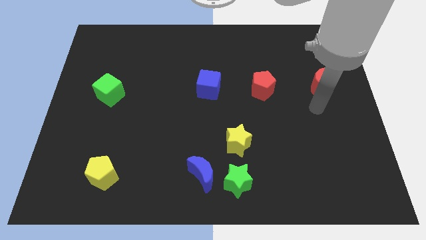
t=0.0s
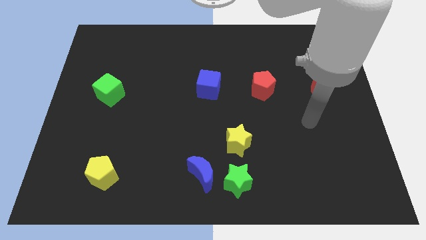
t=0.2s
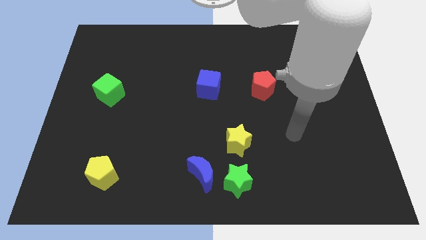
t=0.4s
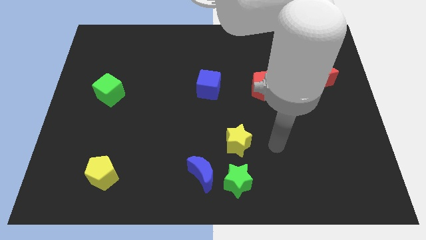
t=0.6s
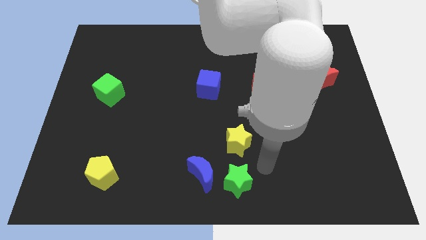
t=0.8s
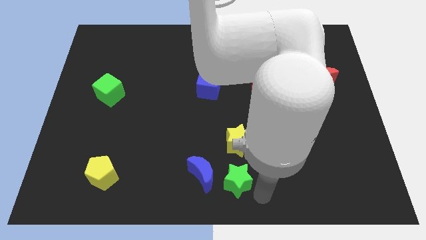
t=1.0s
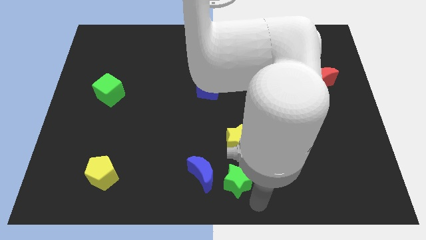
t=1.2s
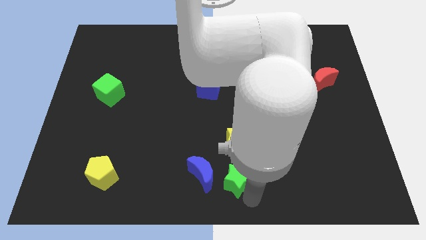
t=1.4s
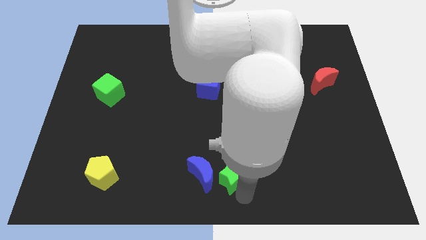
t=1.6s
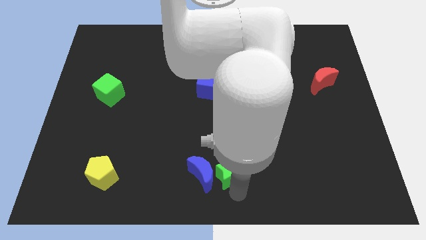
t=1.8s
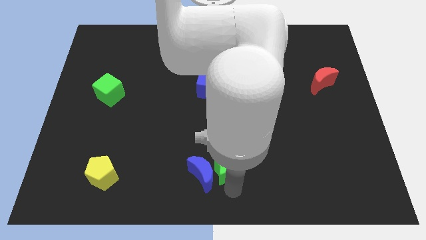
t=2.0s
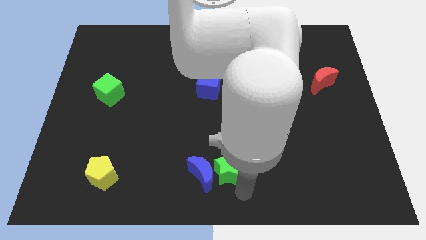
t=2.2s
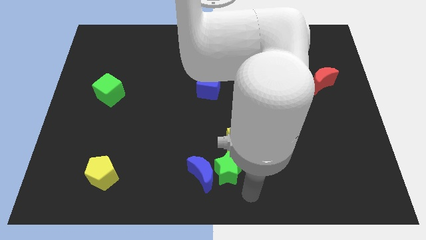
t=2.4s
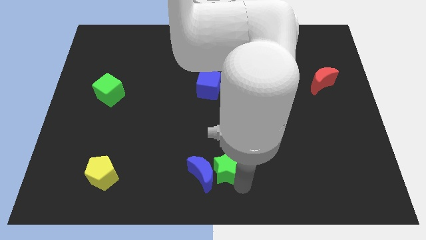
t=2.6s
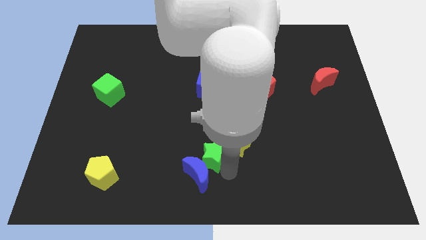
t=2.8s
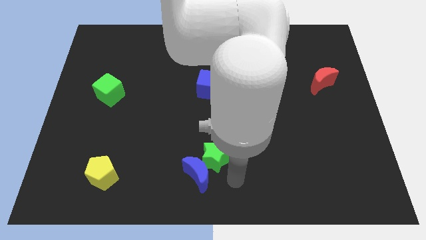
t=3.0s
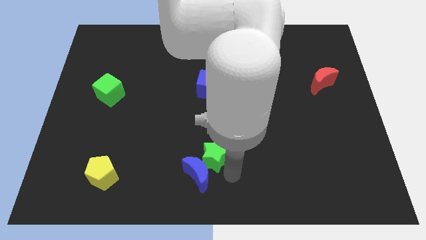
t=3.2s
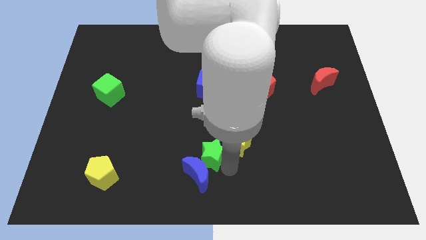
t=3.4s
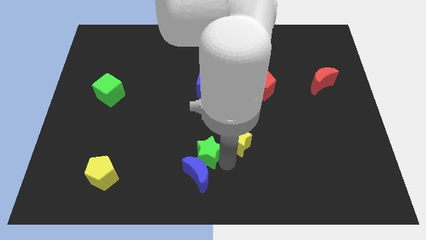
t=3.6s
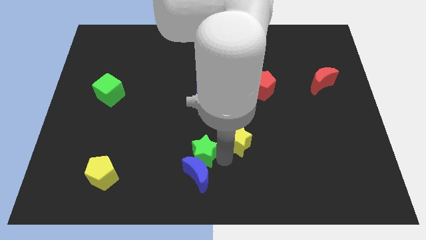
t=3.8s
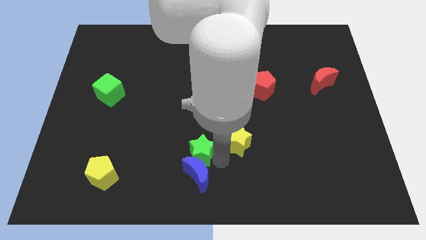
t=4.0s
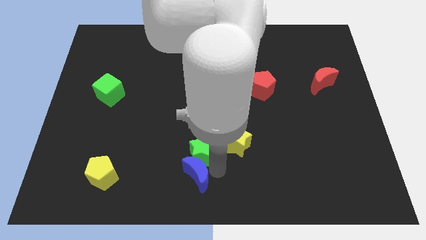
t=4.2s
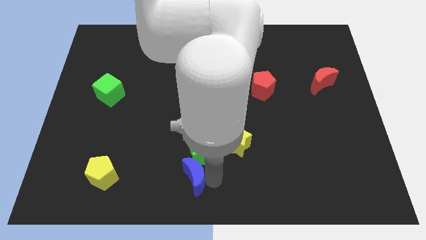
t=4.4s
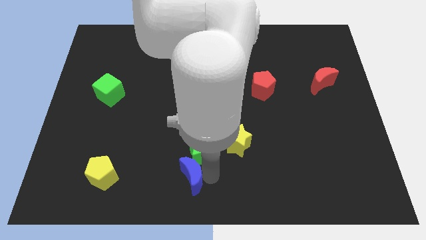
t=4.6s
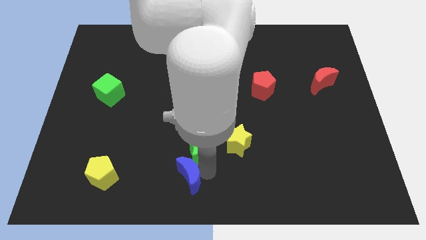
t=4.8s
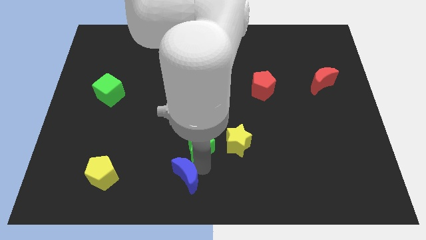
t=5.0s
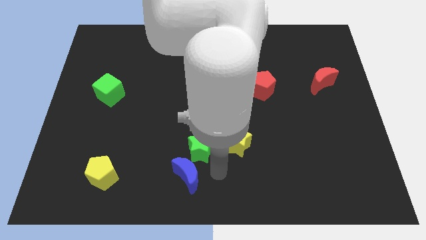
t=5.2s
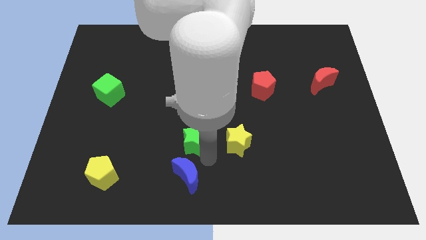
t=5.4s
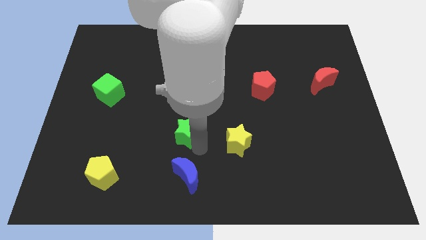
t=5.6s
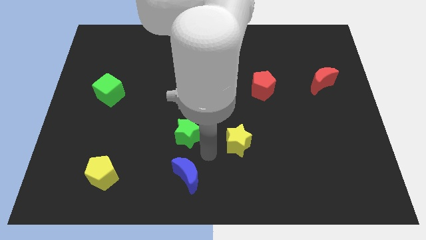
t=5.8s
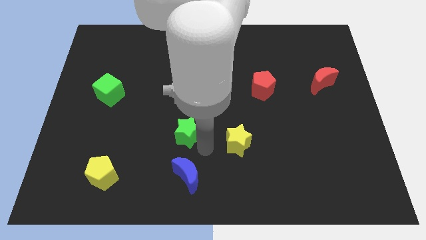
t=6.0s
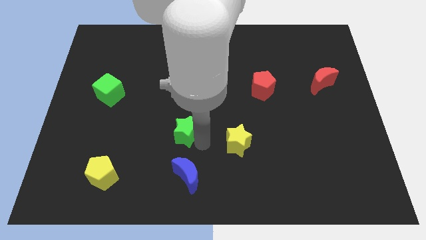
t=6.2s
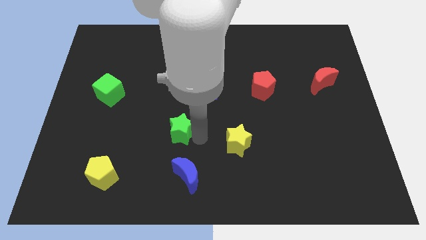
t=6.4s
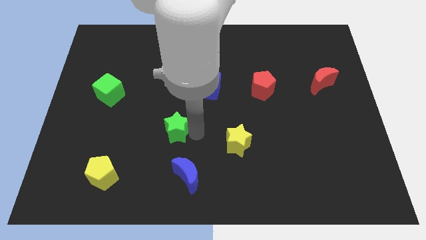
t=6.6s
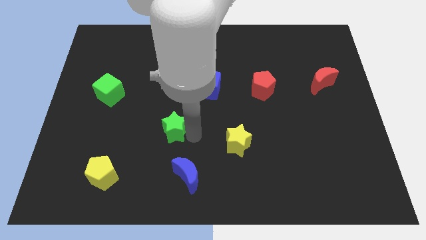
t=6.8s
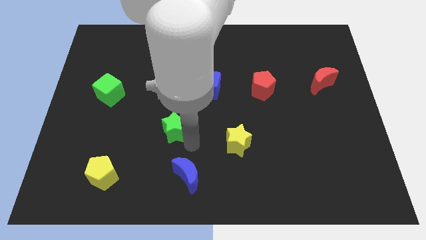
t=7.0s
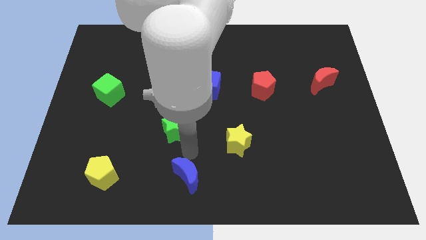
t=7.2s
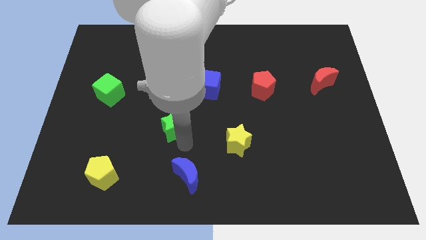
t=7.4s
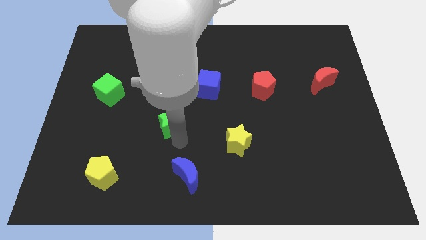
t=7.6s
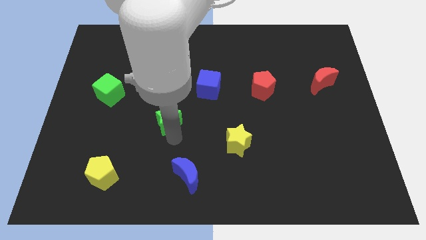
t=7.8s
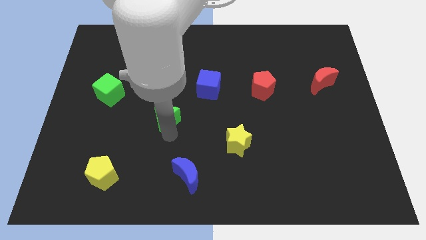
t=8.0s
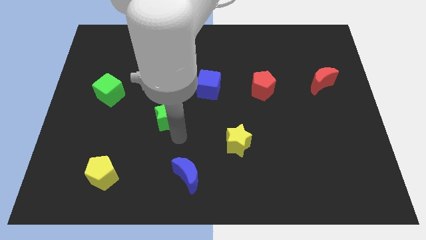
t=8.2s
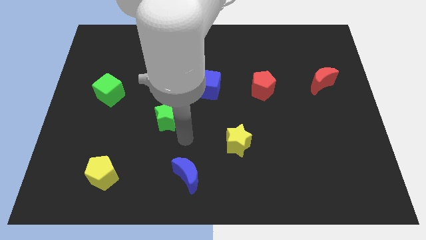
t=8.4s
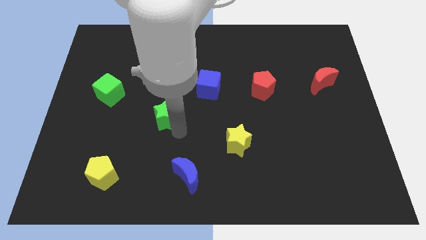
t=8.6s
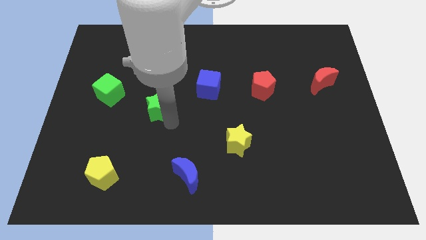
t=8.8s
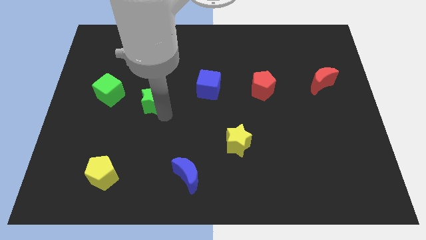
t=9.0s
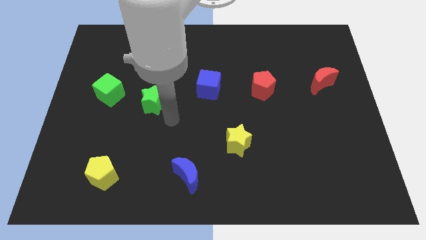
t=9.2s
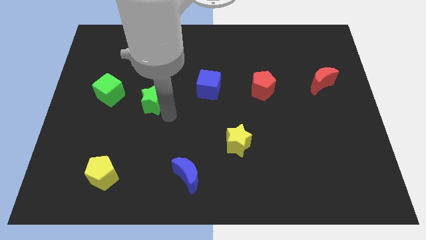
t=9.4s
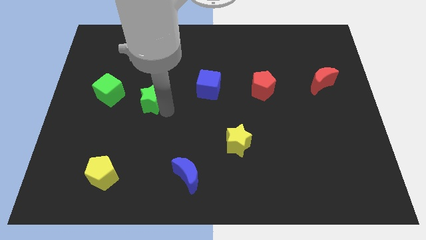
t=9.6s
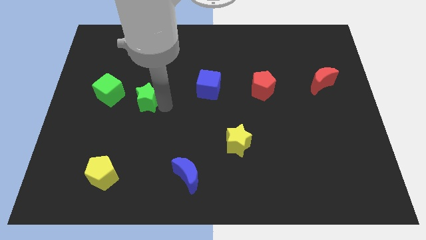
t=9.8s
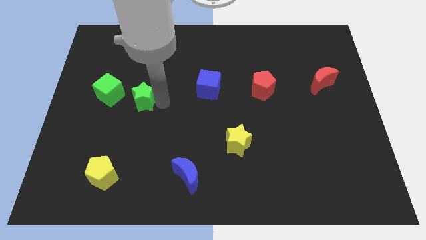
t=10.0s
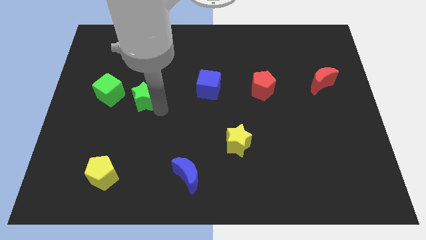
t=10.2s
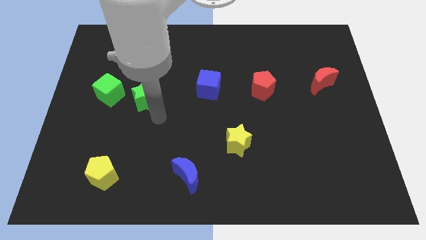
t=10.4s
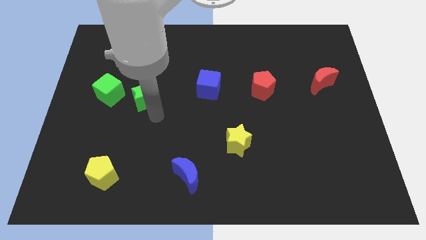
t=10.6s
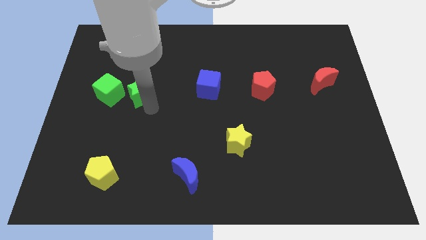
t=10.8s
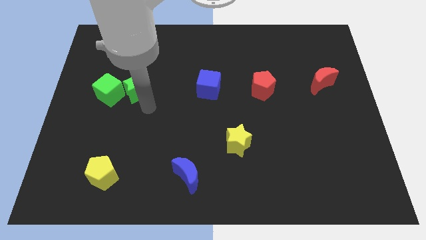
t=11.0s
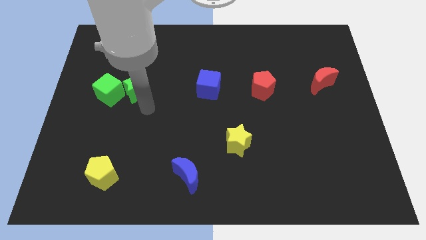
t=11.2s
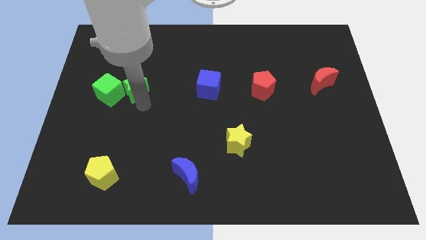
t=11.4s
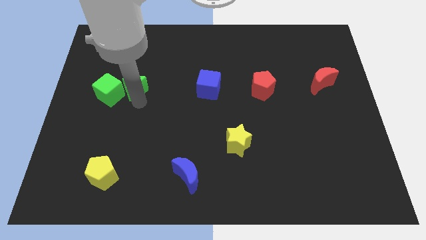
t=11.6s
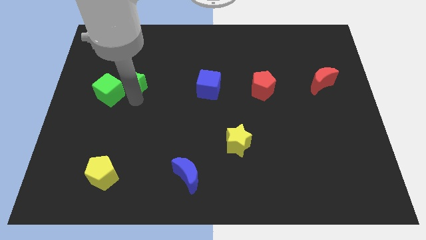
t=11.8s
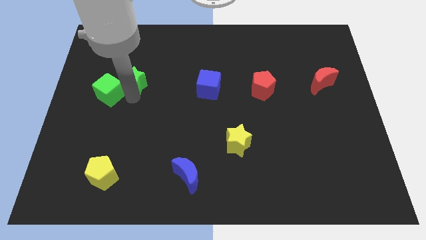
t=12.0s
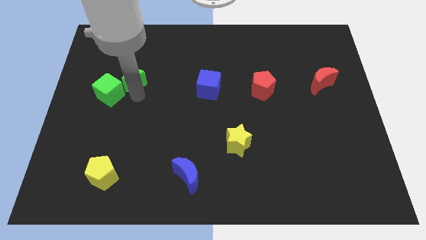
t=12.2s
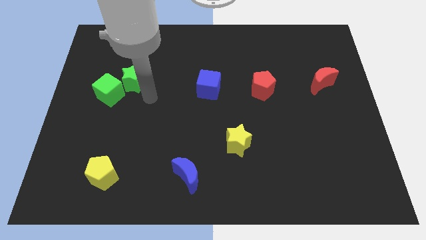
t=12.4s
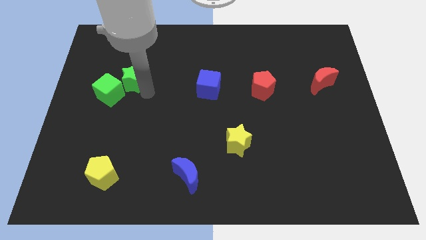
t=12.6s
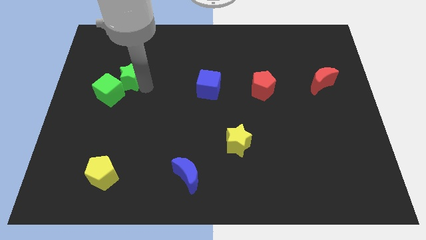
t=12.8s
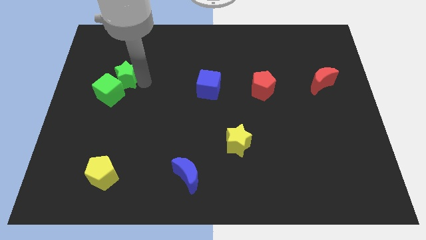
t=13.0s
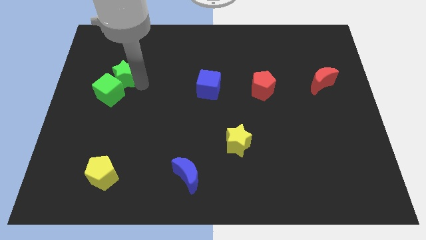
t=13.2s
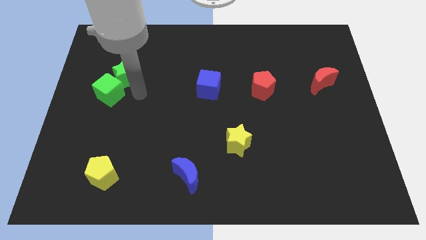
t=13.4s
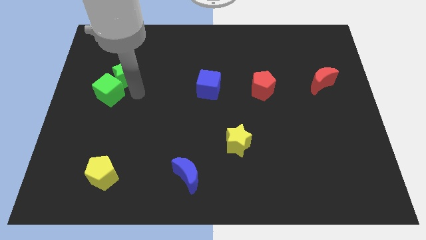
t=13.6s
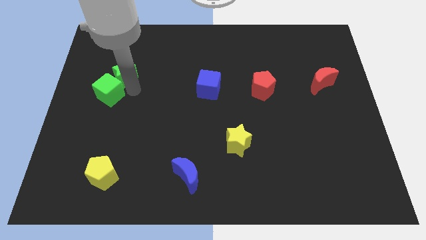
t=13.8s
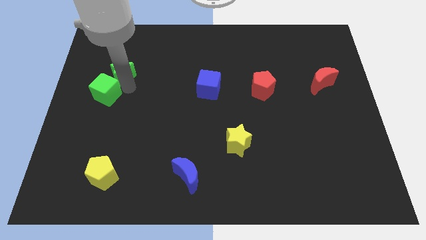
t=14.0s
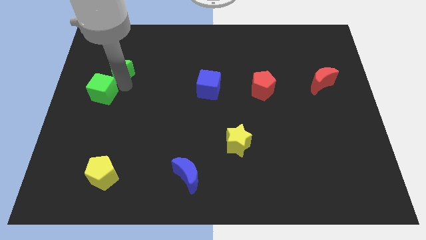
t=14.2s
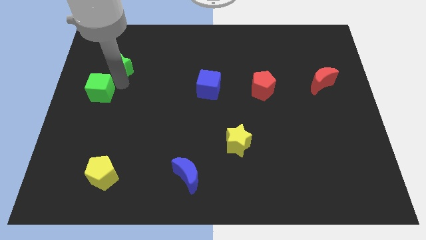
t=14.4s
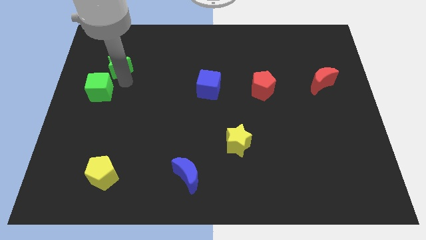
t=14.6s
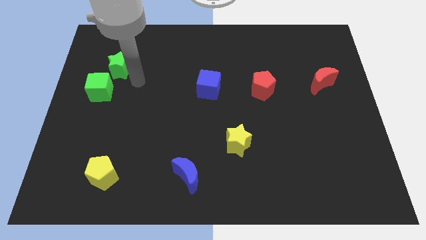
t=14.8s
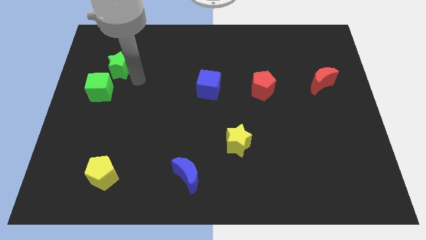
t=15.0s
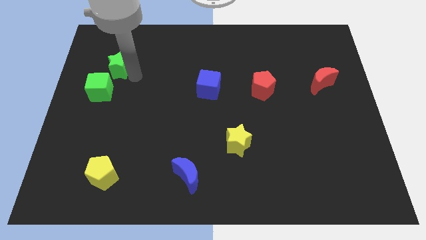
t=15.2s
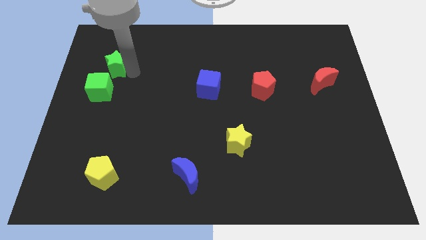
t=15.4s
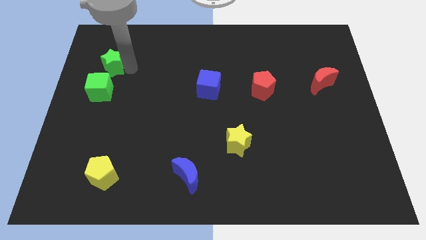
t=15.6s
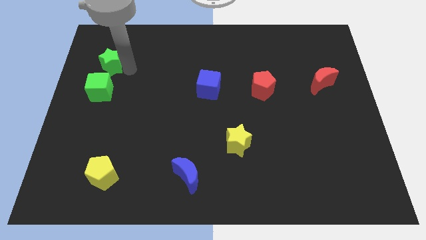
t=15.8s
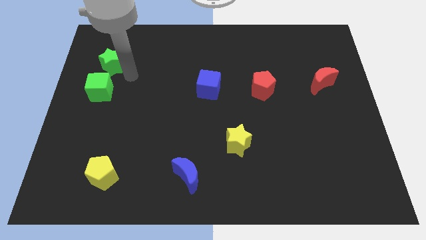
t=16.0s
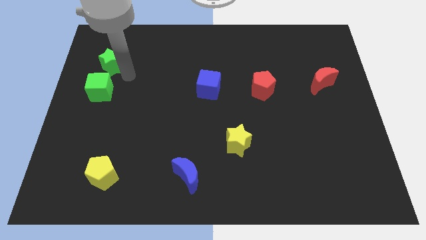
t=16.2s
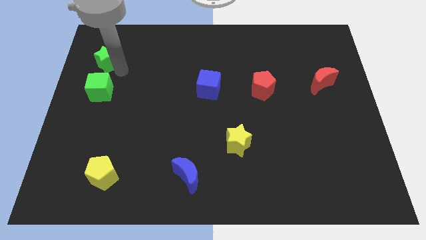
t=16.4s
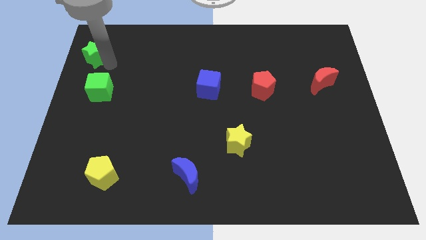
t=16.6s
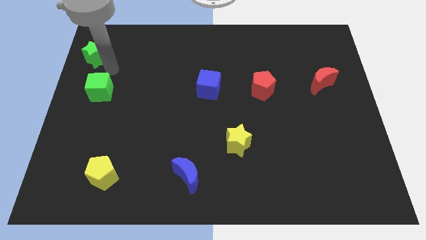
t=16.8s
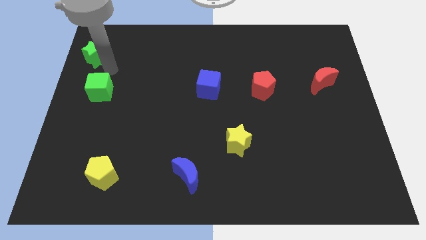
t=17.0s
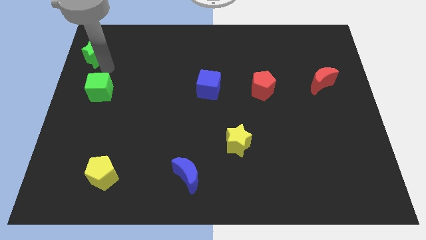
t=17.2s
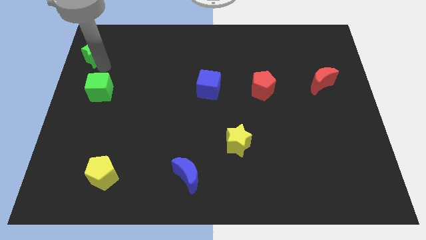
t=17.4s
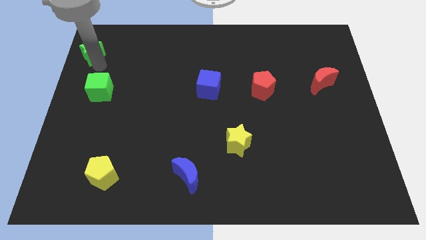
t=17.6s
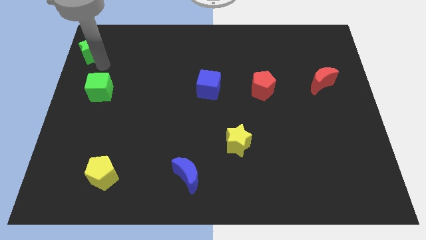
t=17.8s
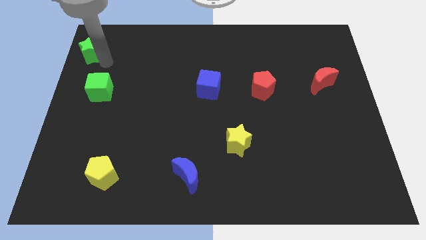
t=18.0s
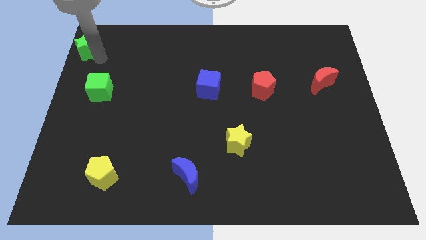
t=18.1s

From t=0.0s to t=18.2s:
slide the green star to the upper left corner
